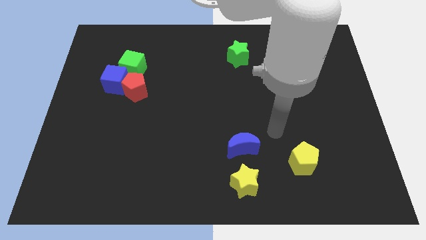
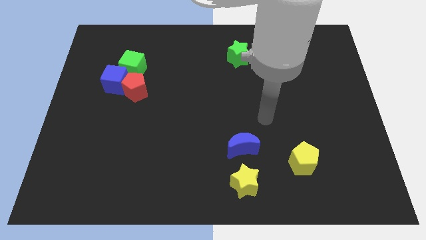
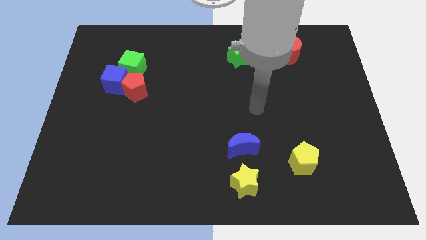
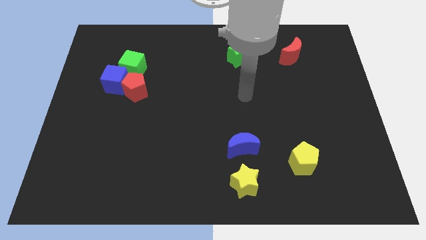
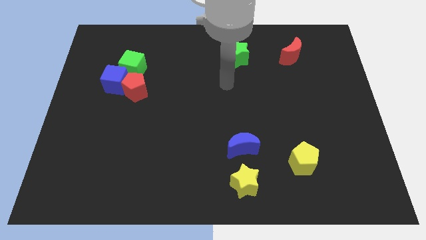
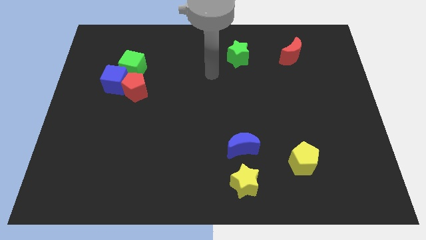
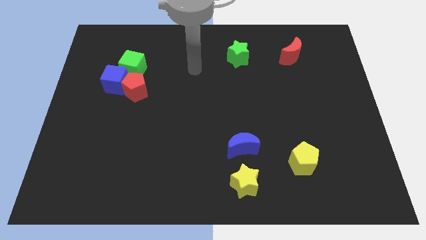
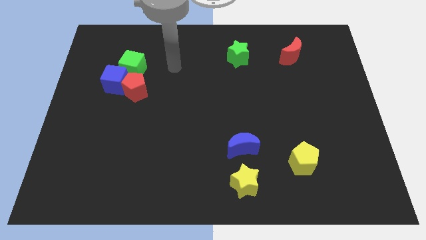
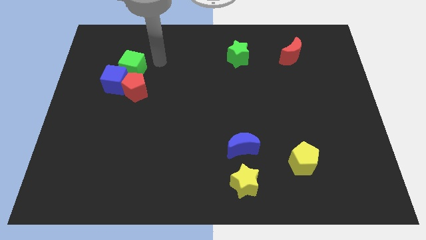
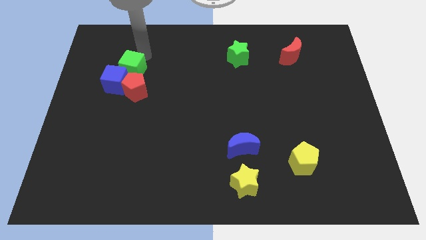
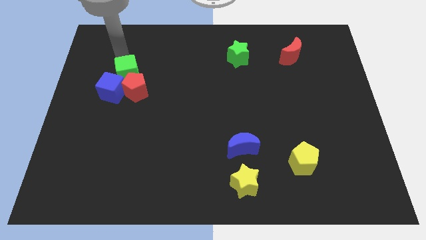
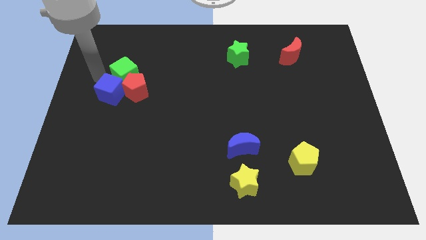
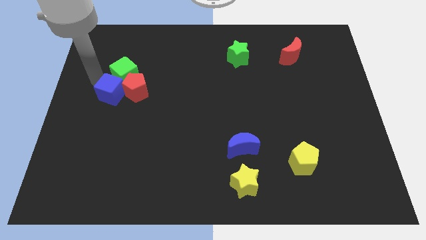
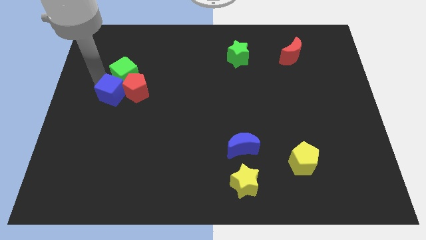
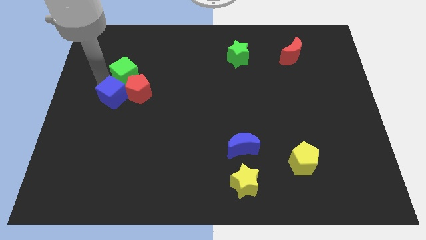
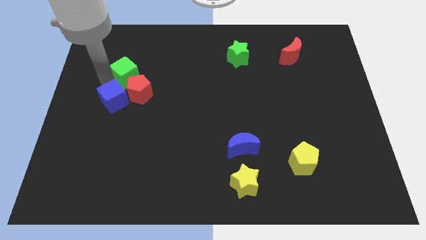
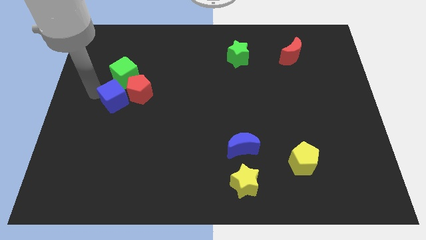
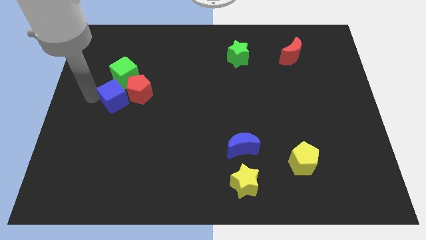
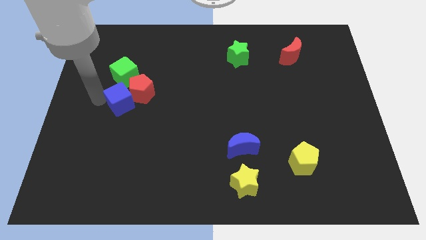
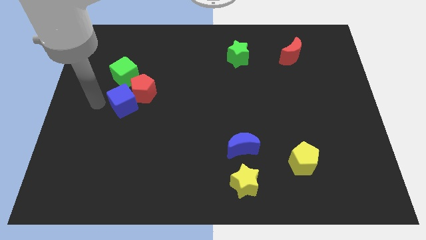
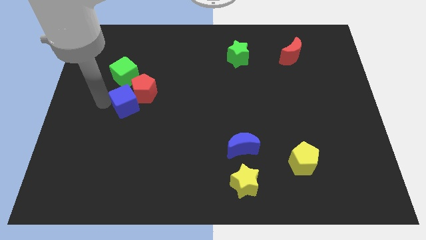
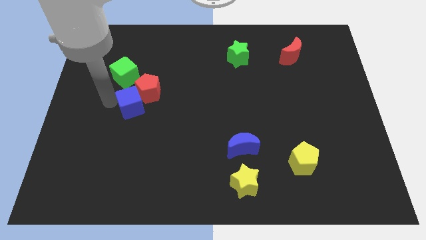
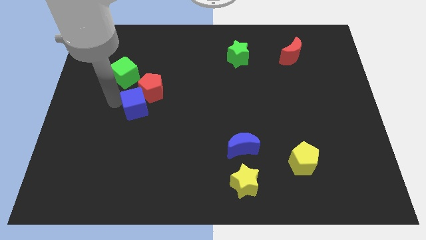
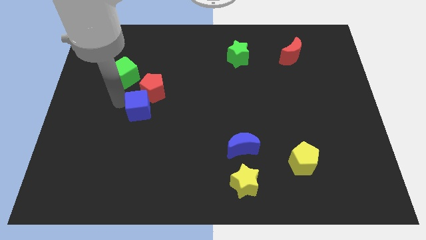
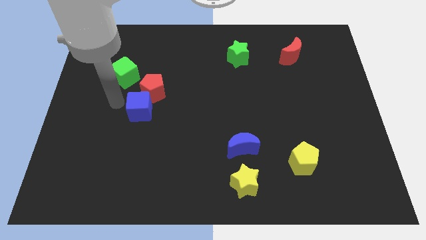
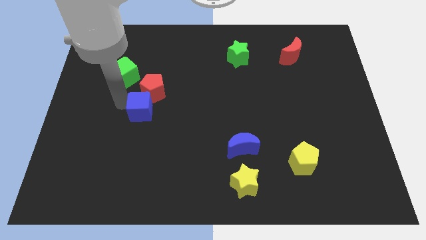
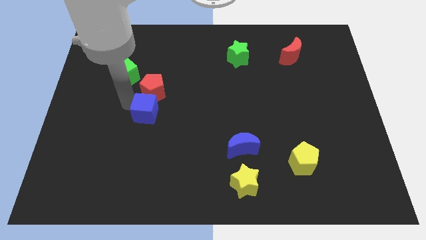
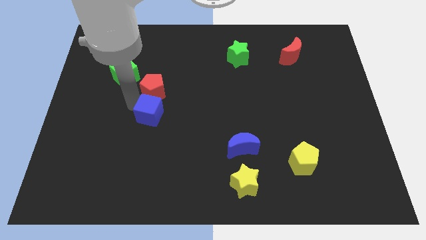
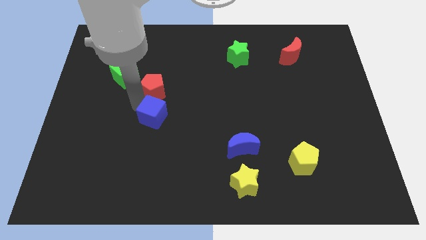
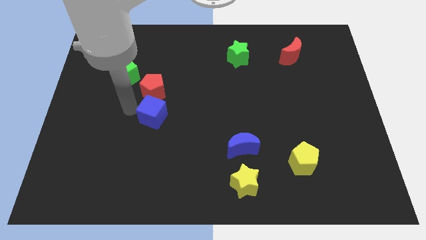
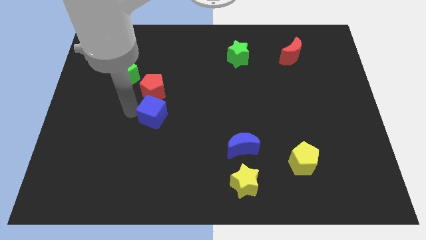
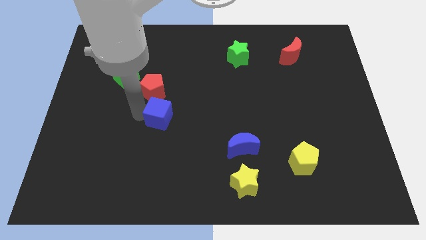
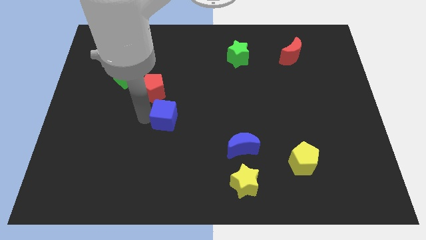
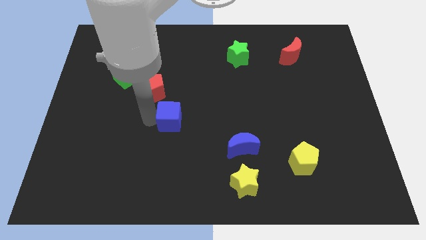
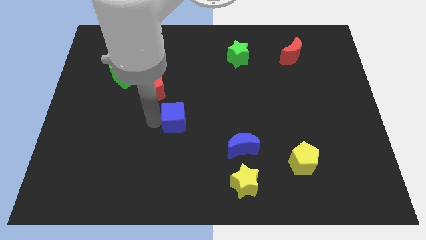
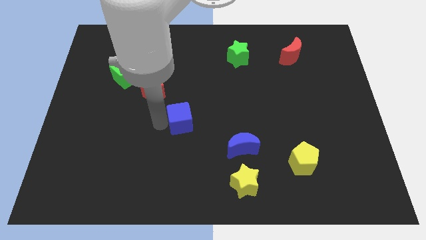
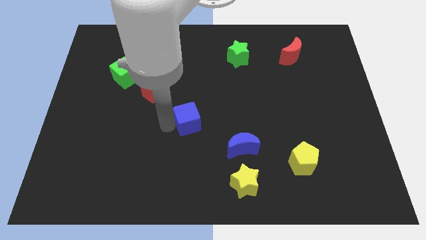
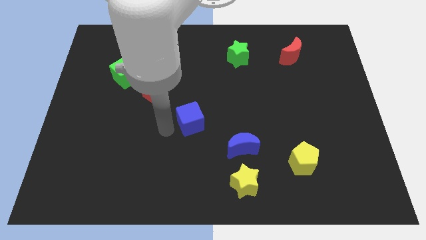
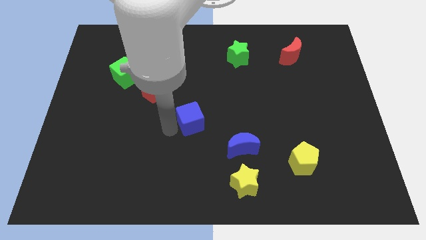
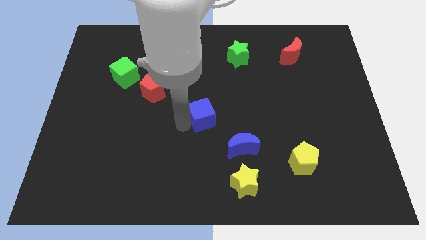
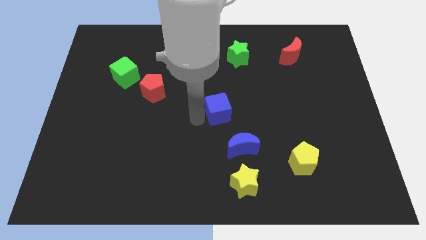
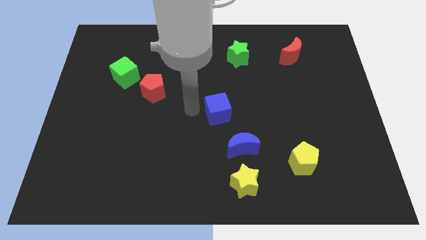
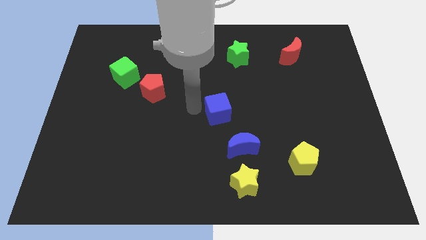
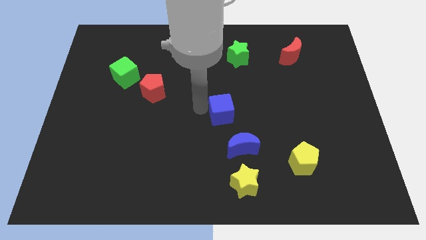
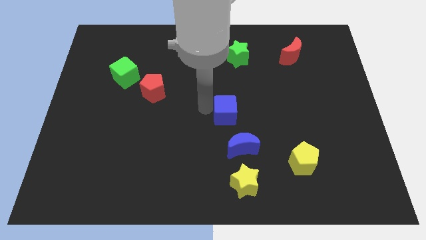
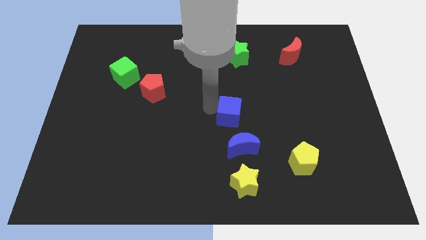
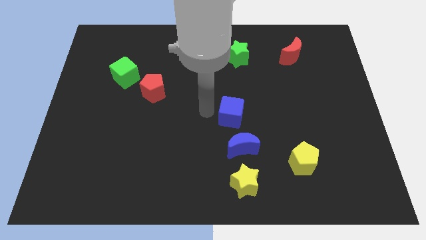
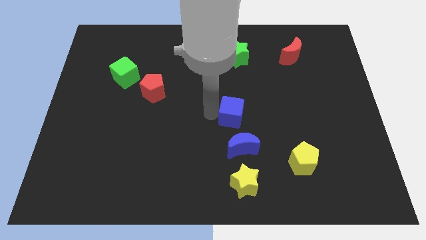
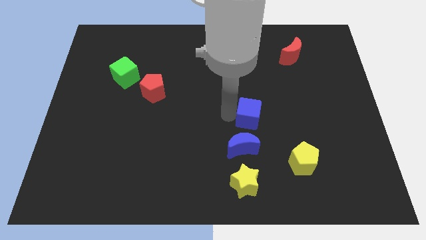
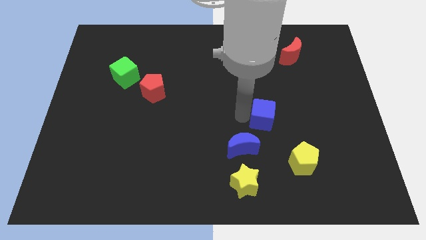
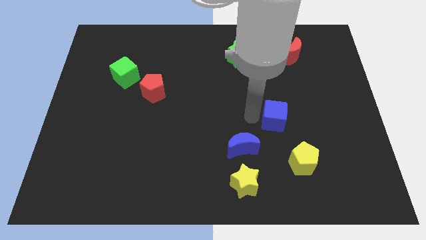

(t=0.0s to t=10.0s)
move the blue cube above the yellow pentagon

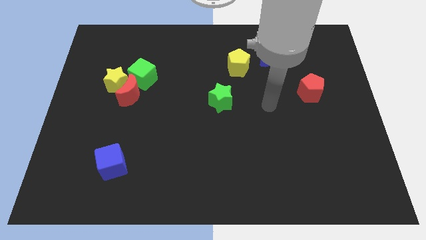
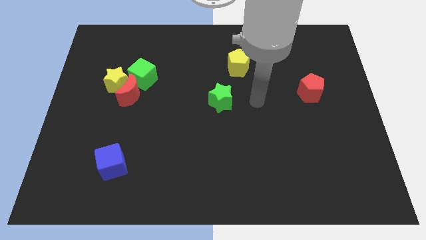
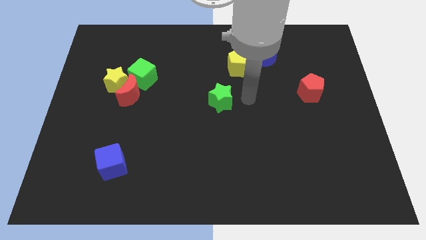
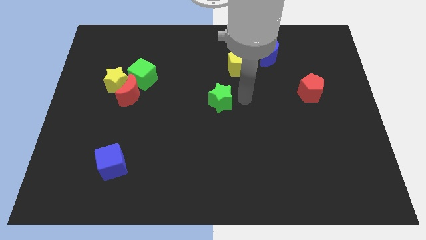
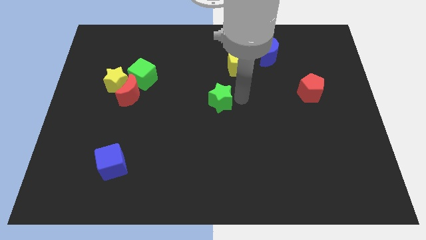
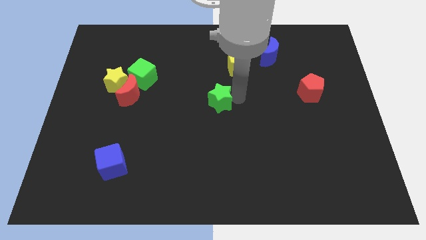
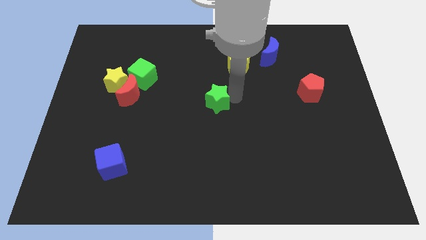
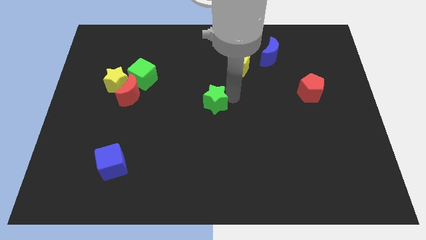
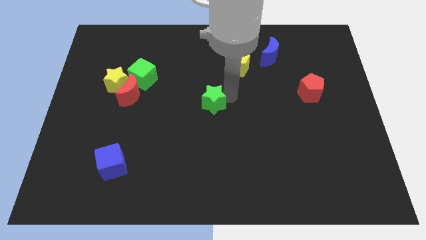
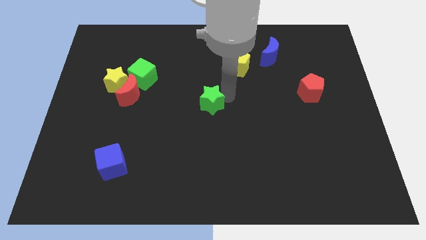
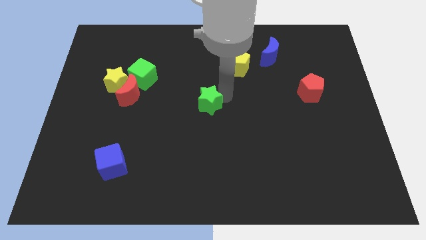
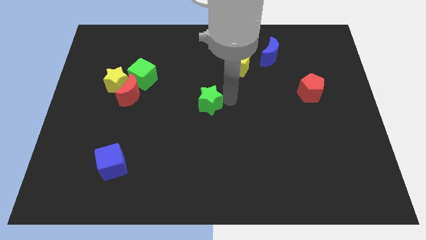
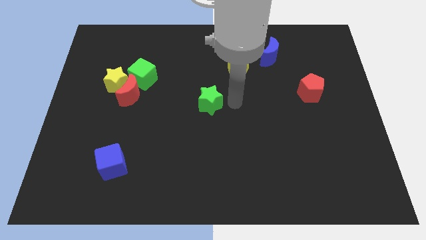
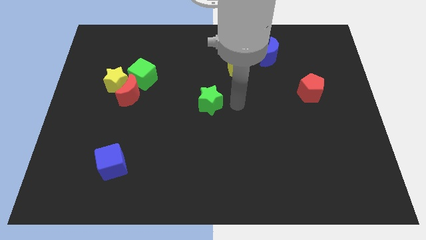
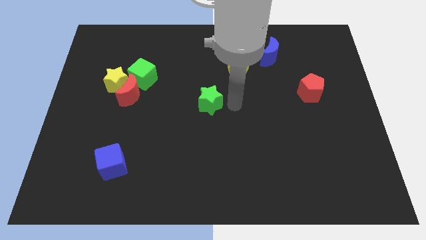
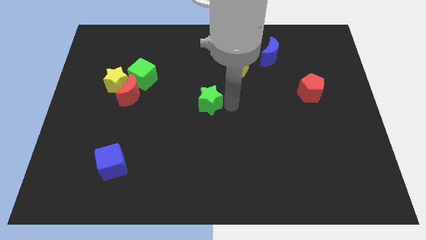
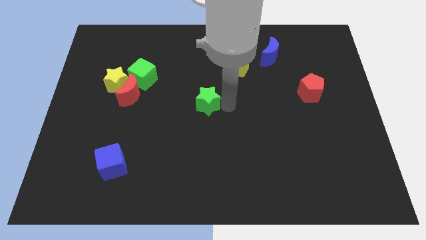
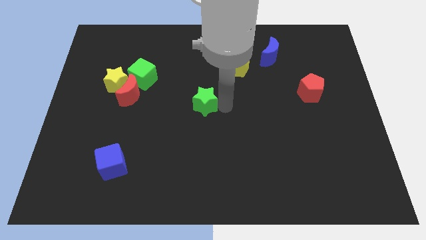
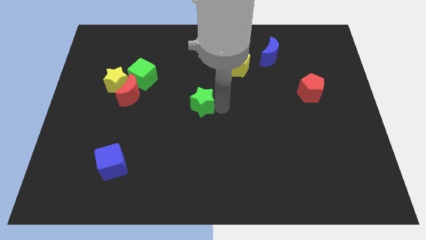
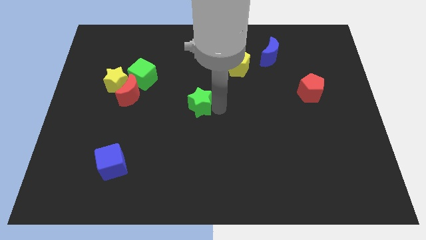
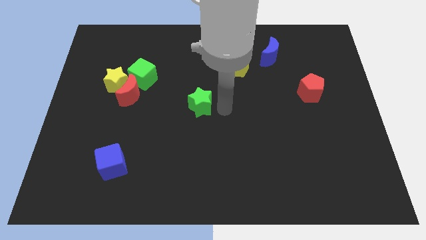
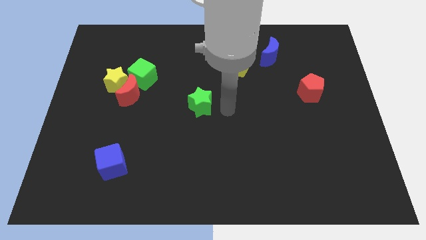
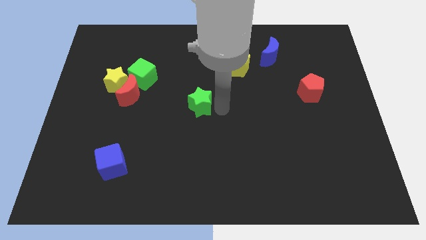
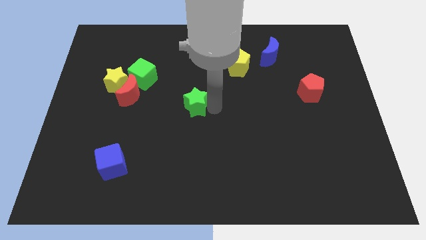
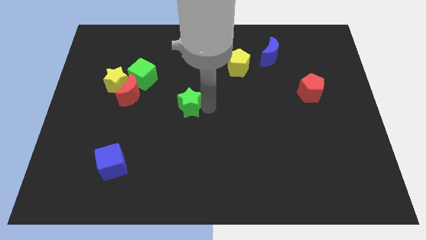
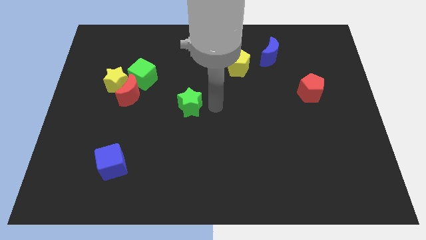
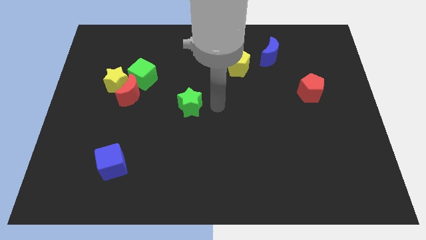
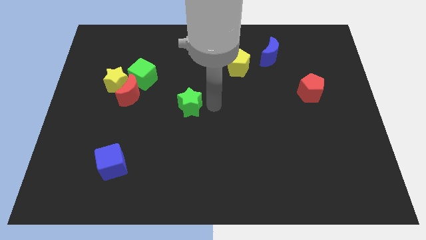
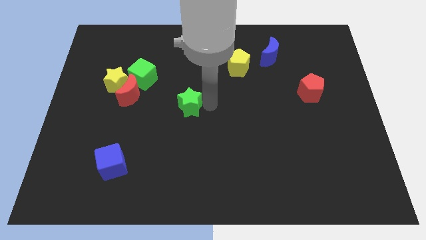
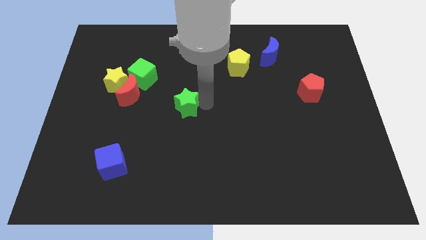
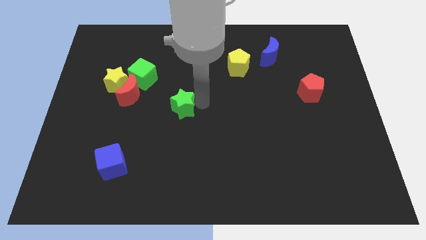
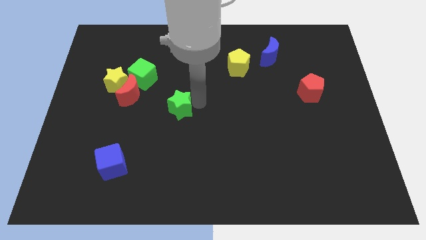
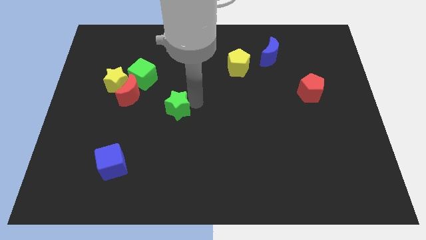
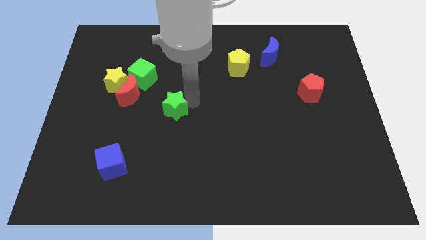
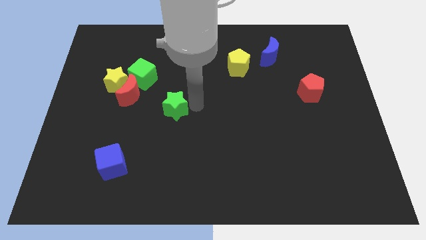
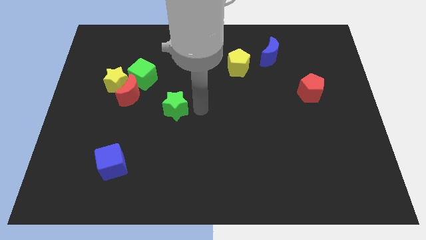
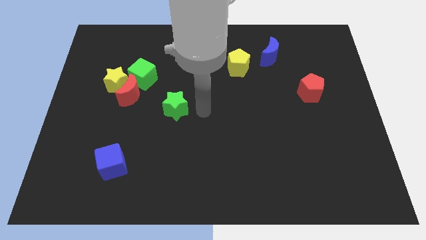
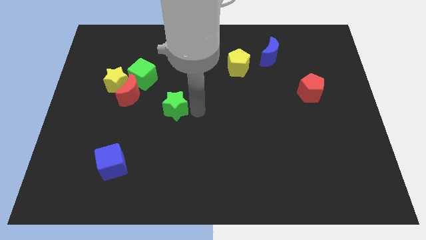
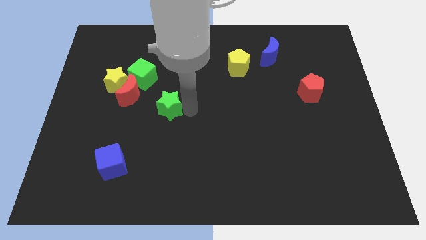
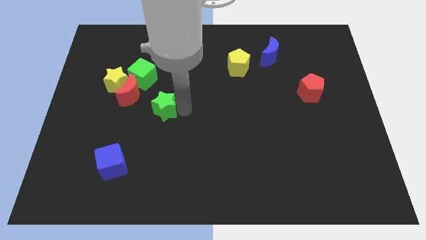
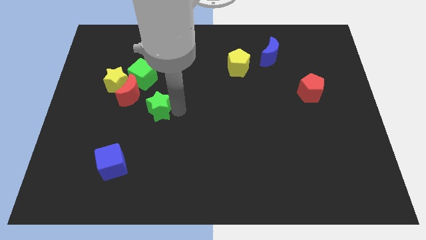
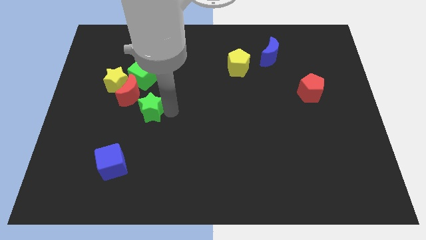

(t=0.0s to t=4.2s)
put the green star diagonally down and to the right of the yellow star
